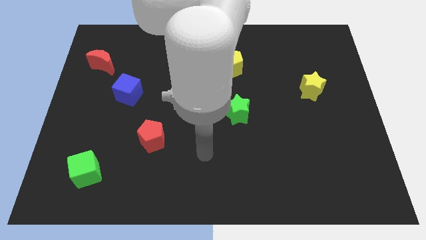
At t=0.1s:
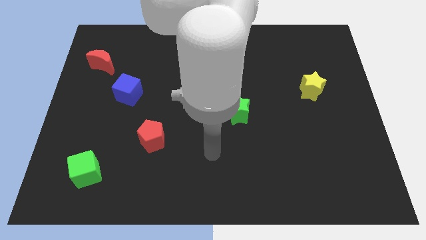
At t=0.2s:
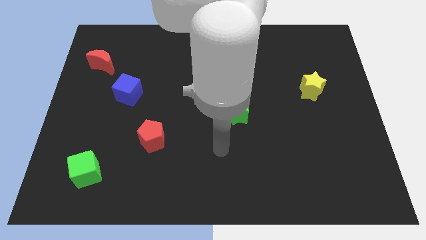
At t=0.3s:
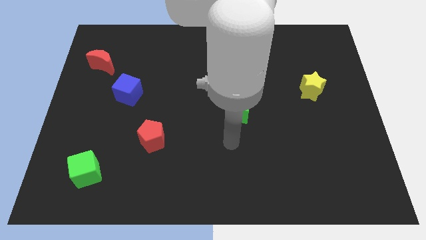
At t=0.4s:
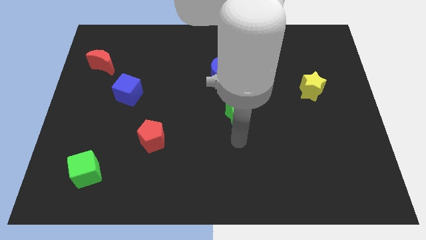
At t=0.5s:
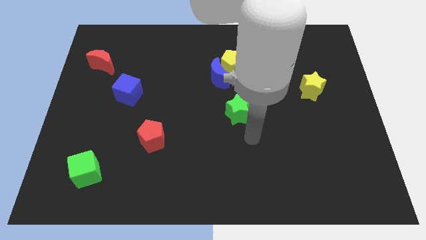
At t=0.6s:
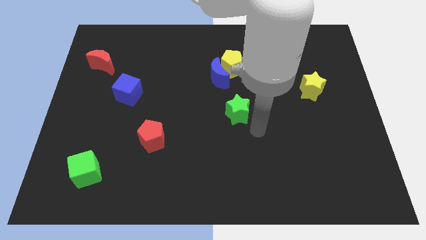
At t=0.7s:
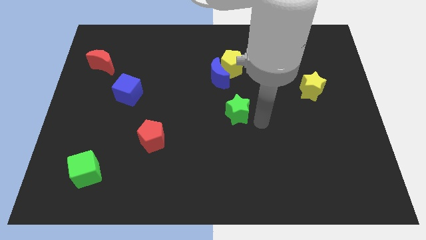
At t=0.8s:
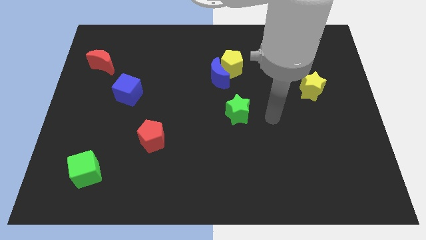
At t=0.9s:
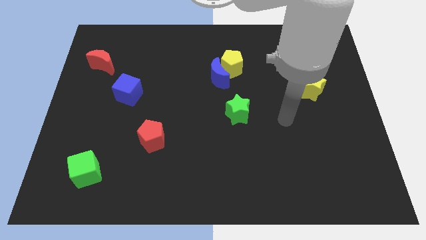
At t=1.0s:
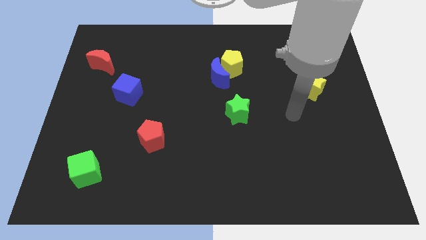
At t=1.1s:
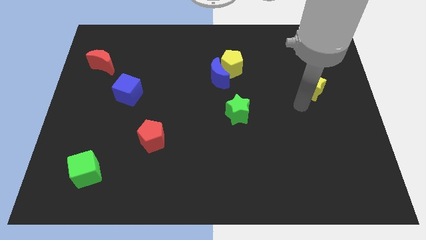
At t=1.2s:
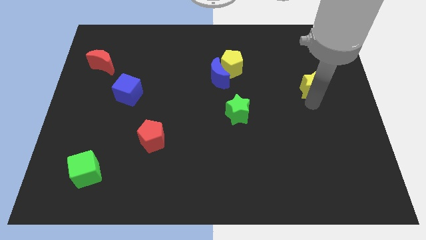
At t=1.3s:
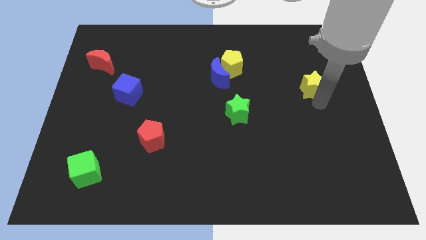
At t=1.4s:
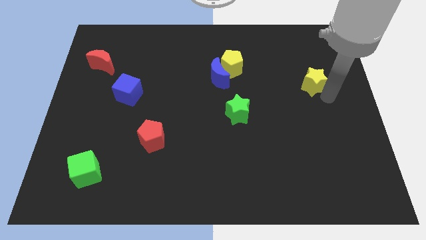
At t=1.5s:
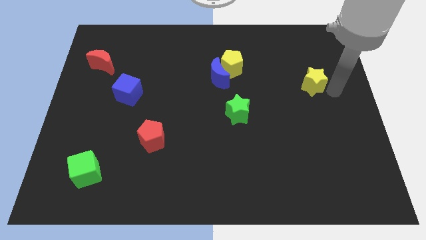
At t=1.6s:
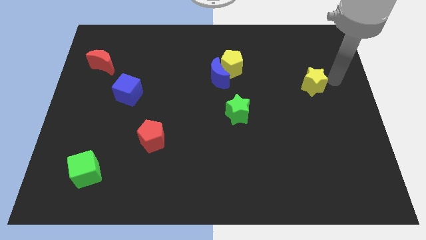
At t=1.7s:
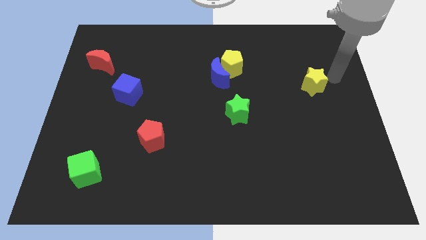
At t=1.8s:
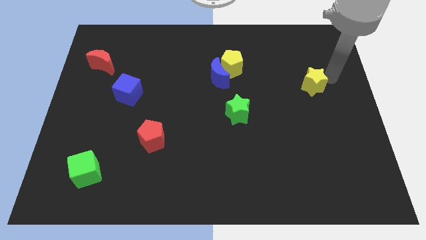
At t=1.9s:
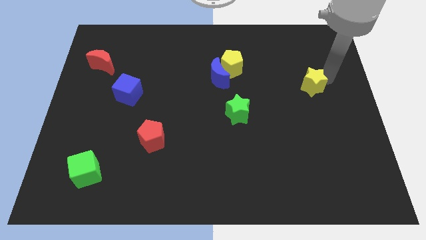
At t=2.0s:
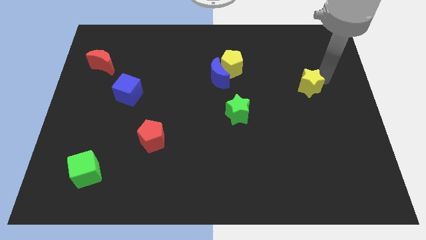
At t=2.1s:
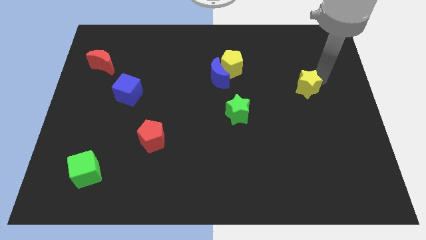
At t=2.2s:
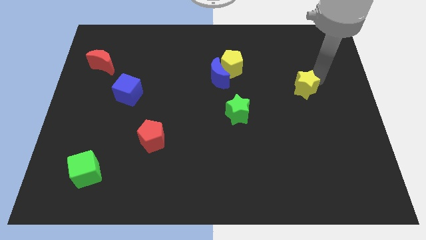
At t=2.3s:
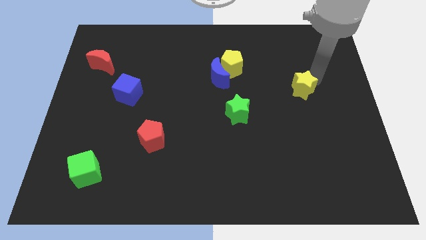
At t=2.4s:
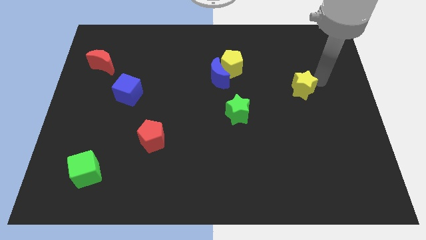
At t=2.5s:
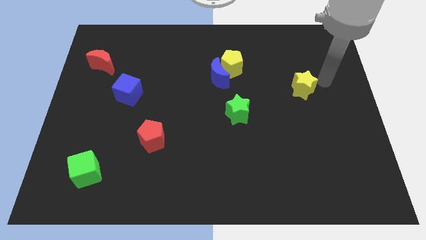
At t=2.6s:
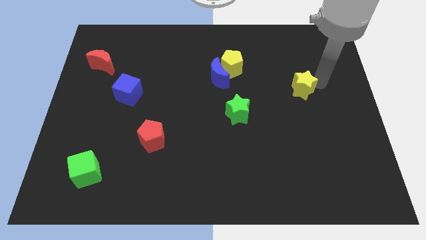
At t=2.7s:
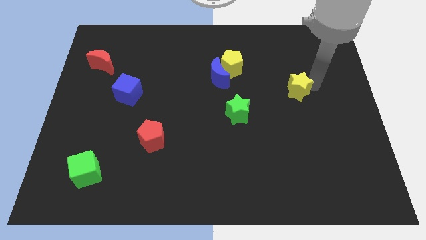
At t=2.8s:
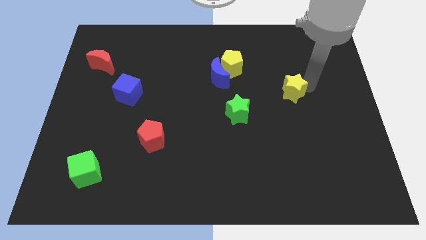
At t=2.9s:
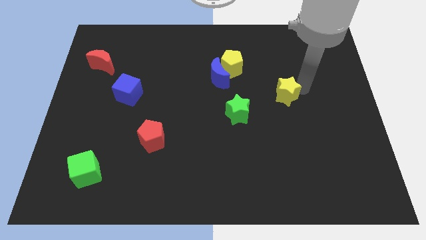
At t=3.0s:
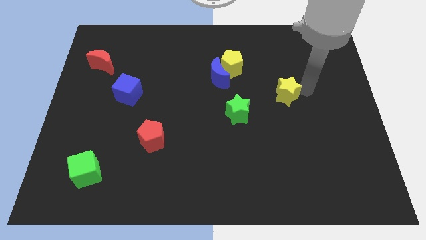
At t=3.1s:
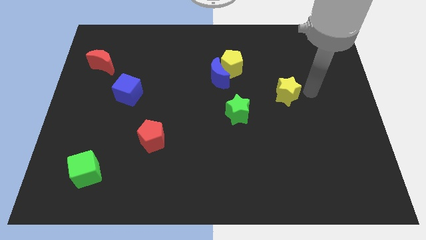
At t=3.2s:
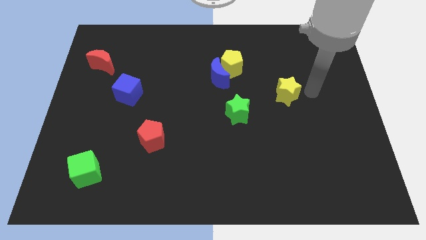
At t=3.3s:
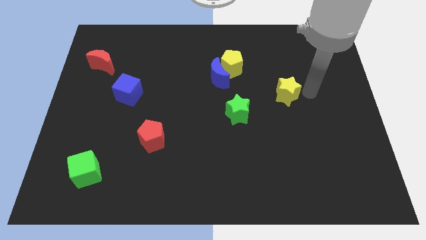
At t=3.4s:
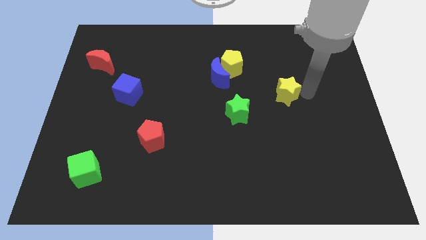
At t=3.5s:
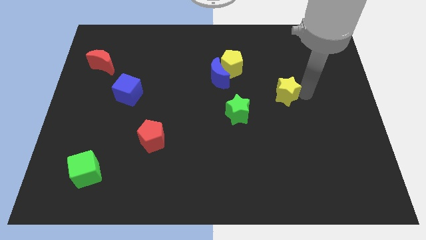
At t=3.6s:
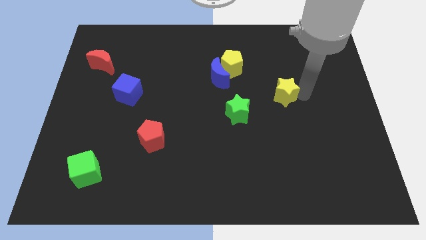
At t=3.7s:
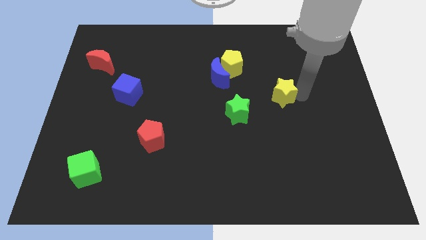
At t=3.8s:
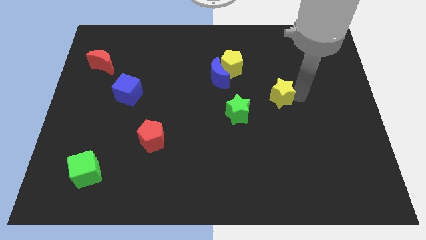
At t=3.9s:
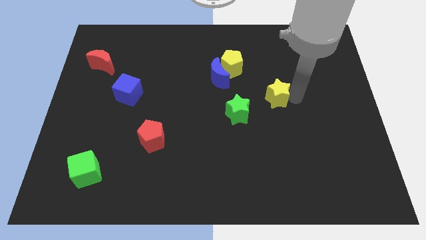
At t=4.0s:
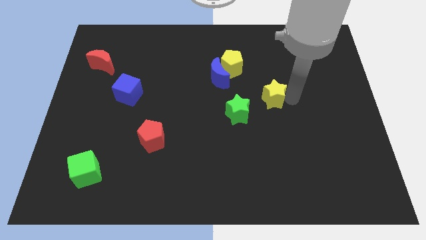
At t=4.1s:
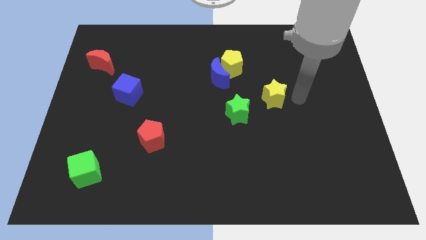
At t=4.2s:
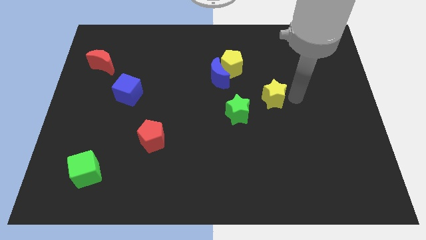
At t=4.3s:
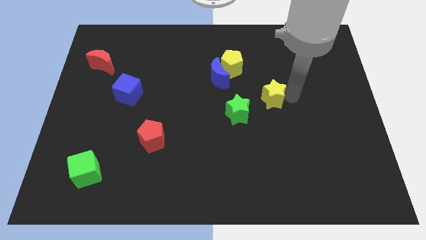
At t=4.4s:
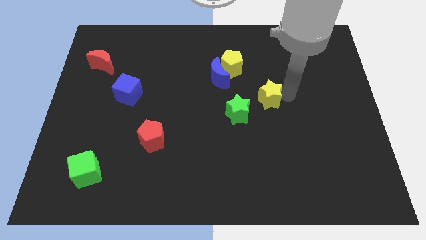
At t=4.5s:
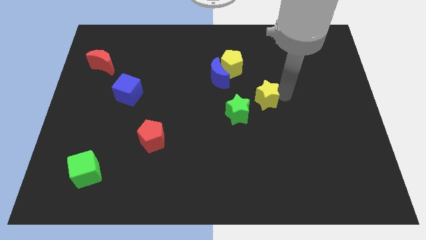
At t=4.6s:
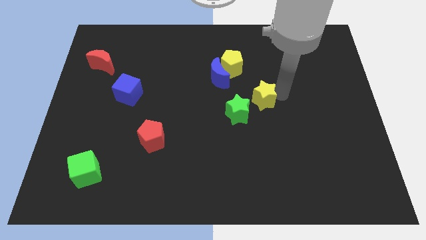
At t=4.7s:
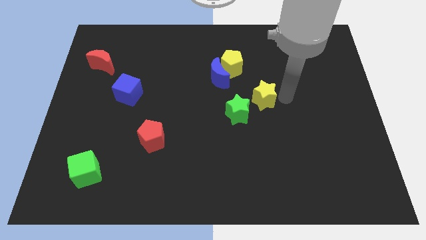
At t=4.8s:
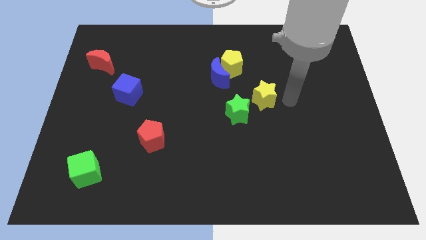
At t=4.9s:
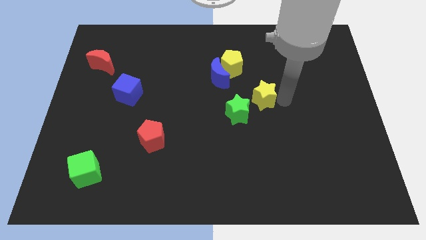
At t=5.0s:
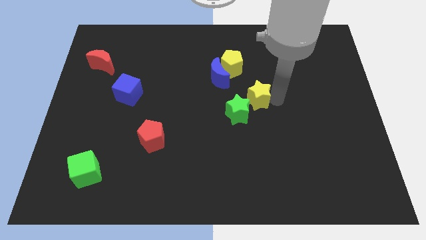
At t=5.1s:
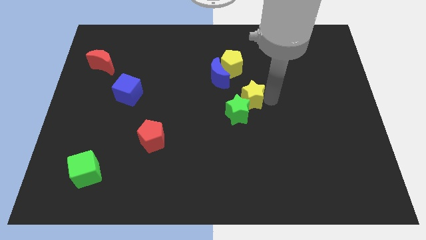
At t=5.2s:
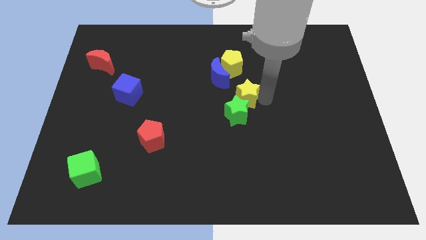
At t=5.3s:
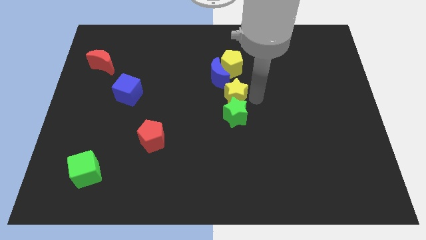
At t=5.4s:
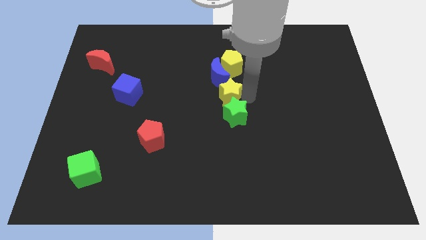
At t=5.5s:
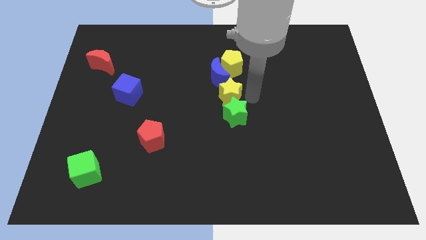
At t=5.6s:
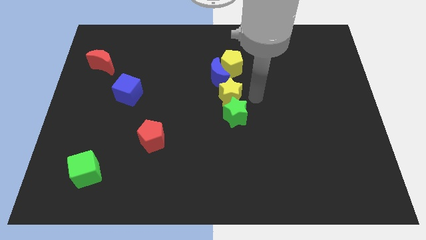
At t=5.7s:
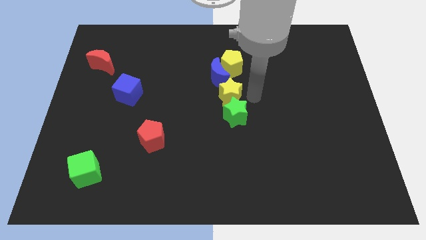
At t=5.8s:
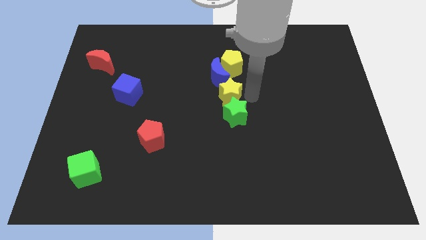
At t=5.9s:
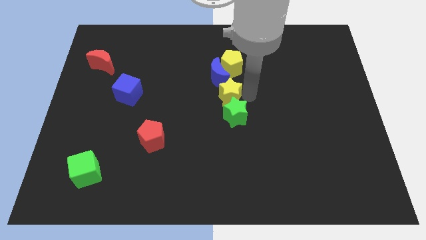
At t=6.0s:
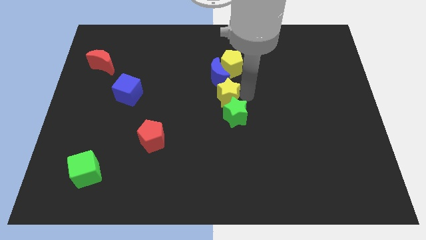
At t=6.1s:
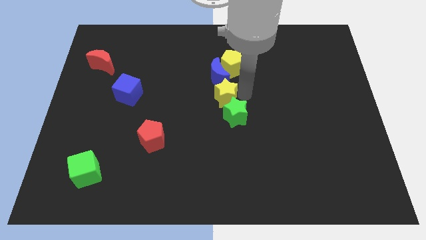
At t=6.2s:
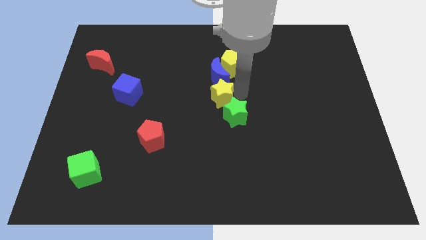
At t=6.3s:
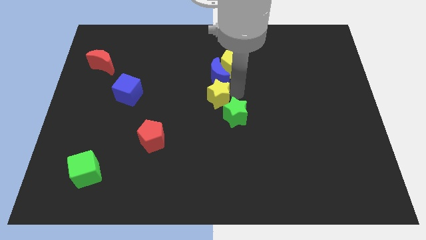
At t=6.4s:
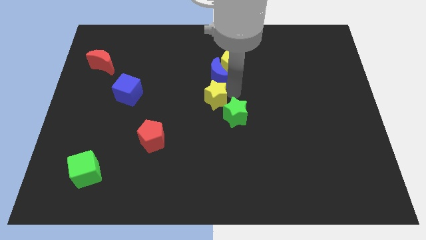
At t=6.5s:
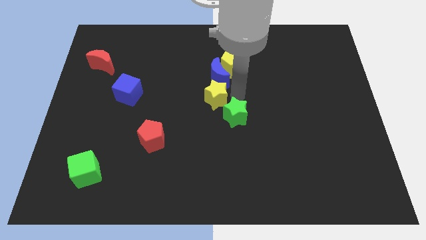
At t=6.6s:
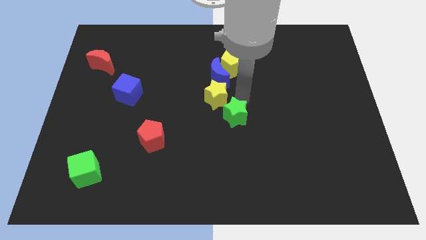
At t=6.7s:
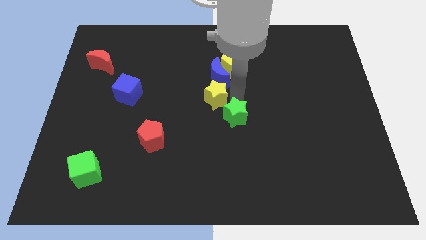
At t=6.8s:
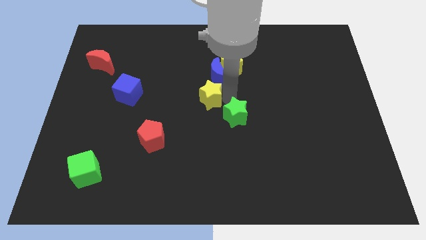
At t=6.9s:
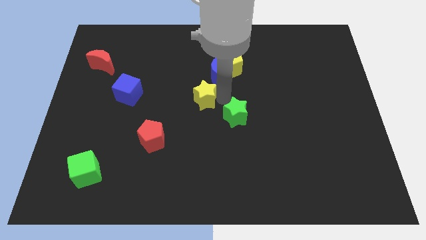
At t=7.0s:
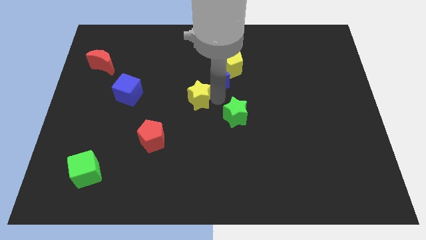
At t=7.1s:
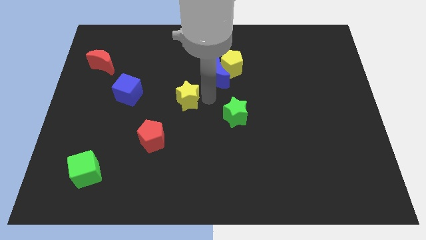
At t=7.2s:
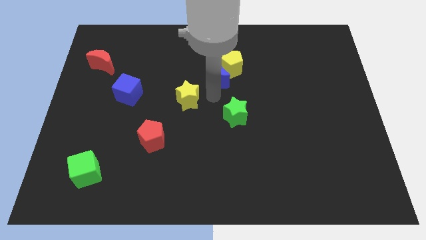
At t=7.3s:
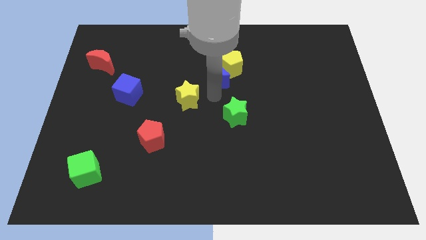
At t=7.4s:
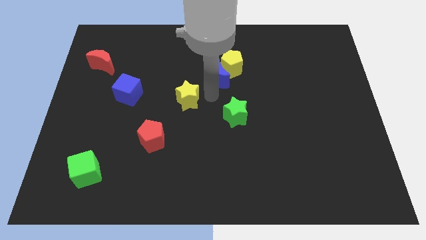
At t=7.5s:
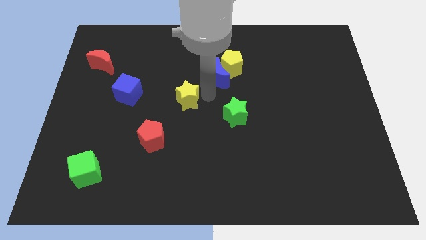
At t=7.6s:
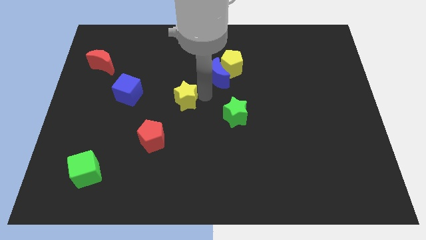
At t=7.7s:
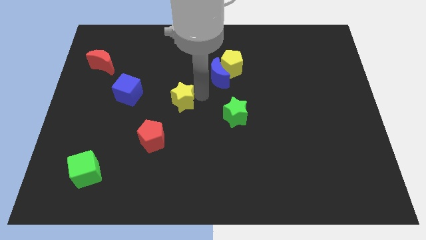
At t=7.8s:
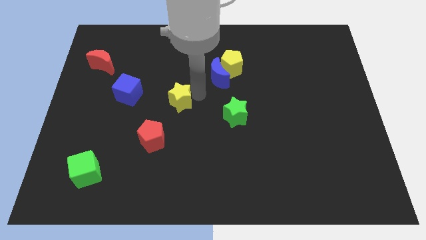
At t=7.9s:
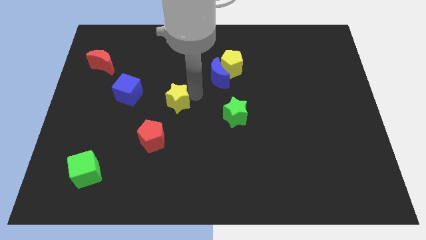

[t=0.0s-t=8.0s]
move the yellow star above the red pentagon
